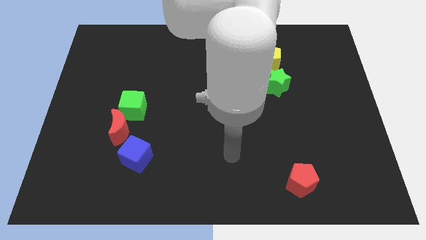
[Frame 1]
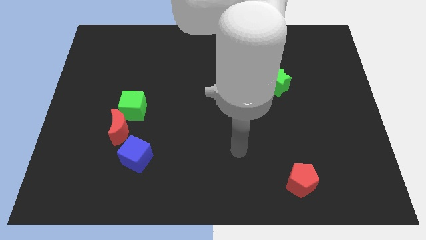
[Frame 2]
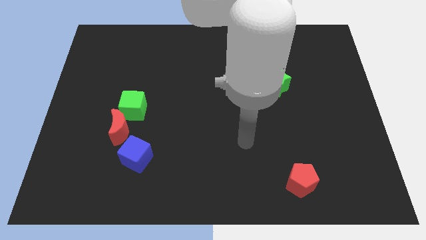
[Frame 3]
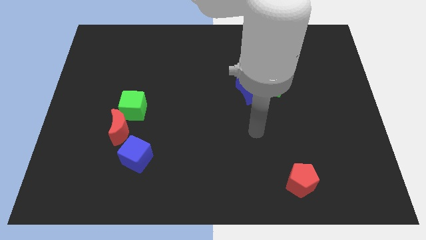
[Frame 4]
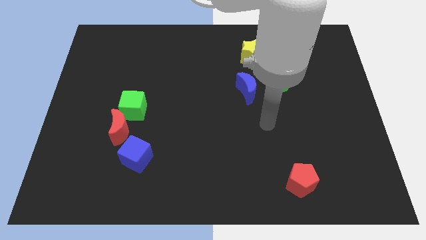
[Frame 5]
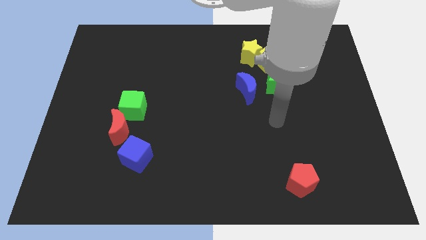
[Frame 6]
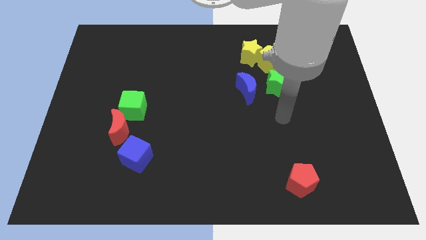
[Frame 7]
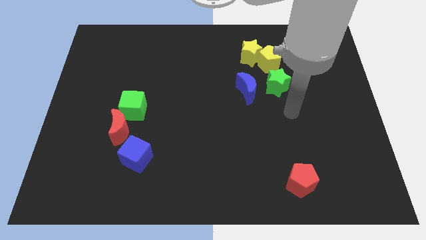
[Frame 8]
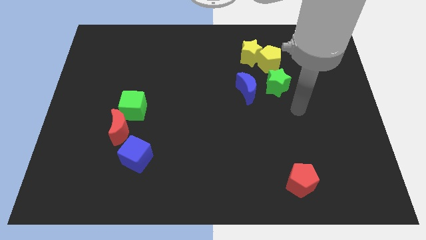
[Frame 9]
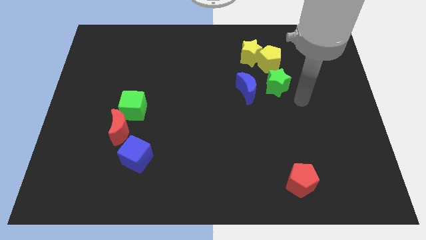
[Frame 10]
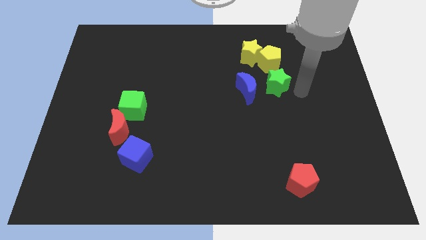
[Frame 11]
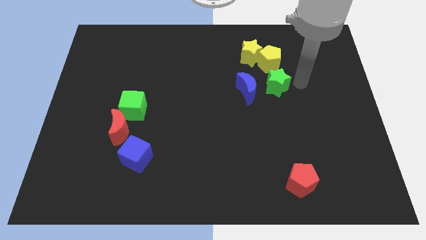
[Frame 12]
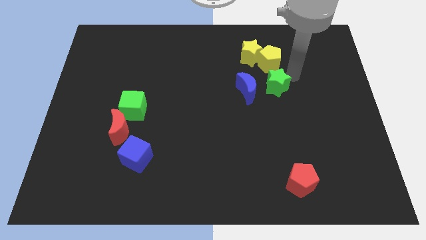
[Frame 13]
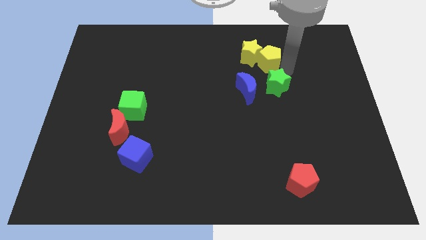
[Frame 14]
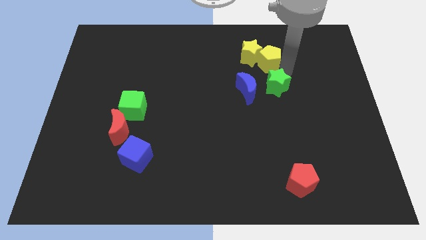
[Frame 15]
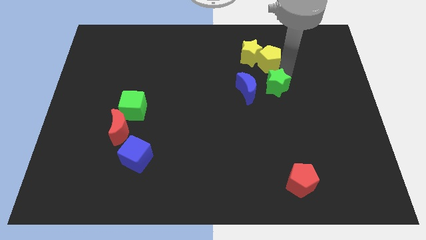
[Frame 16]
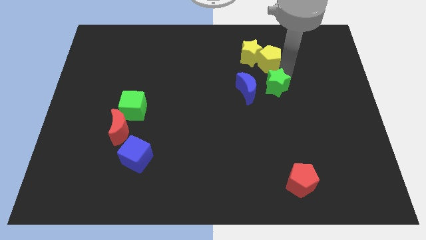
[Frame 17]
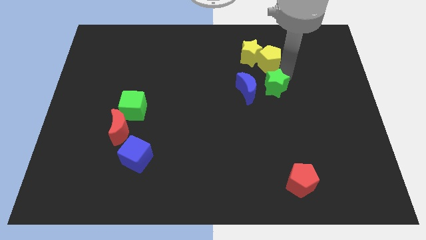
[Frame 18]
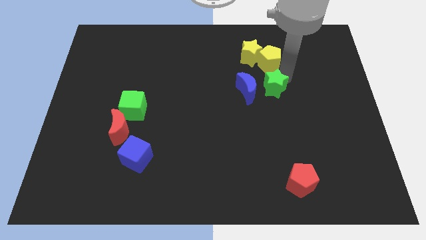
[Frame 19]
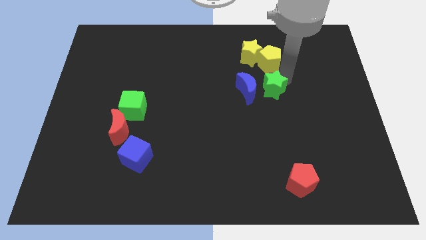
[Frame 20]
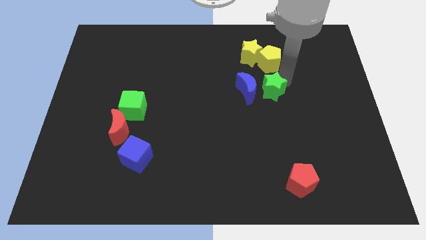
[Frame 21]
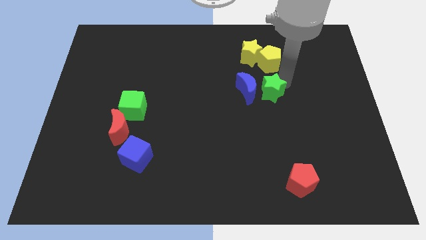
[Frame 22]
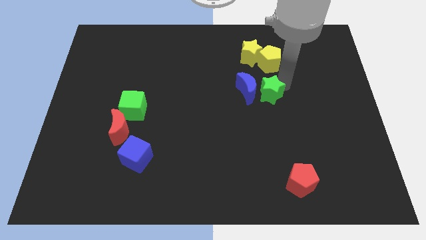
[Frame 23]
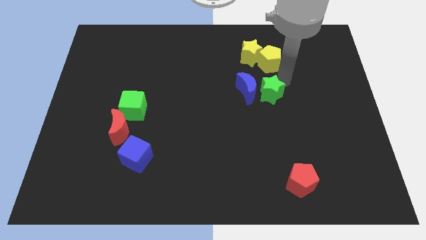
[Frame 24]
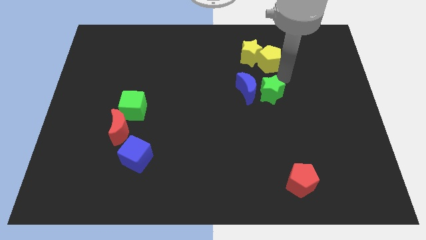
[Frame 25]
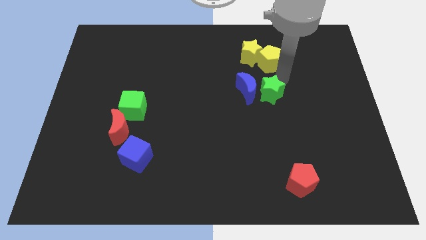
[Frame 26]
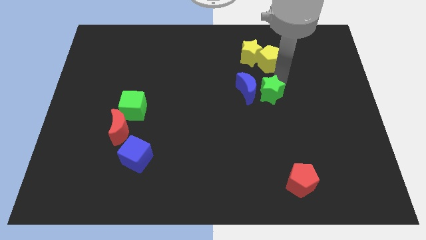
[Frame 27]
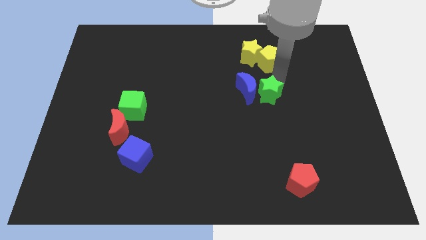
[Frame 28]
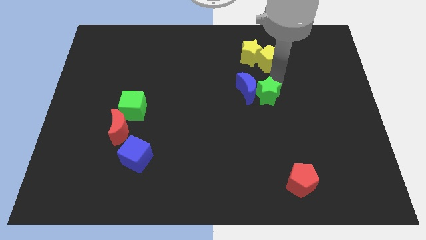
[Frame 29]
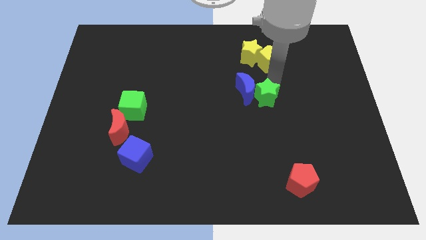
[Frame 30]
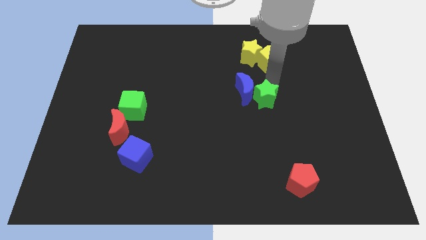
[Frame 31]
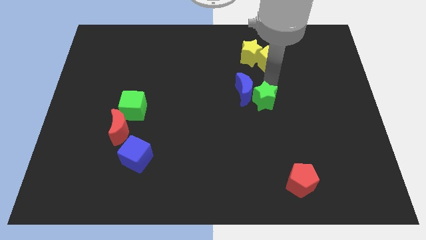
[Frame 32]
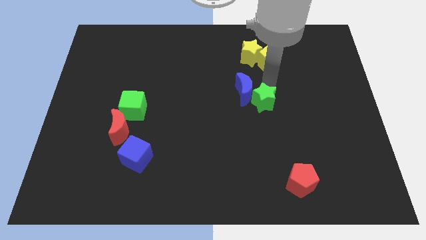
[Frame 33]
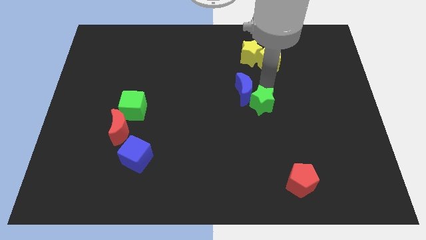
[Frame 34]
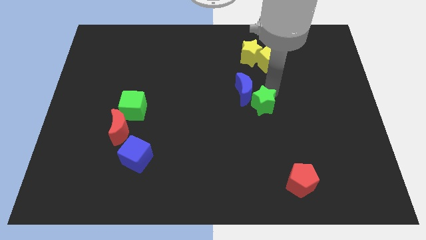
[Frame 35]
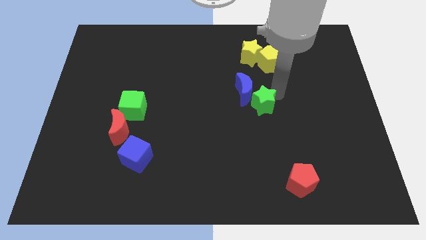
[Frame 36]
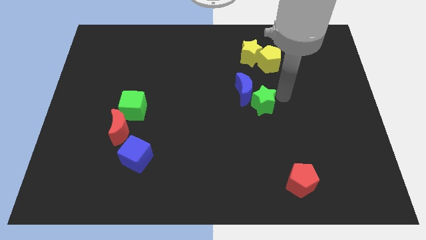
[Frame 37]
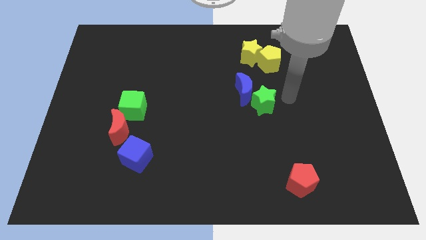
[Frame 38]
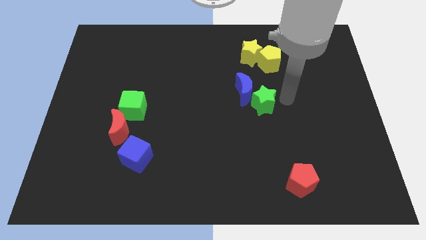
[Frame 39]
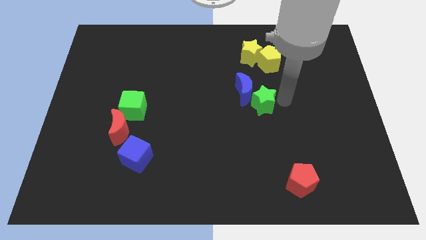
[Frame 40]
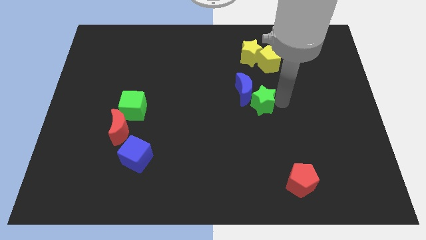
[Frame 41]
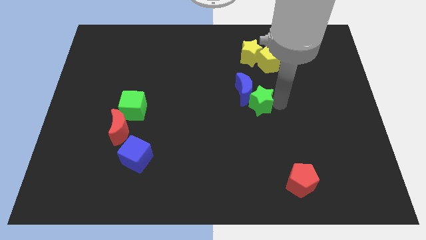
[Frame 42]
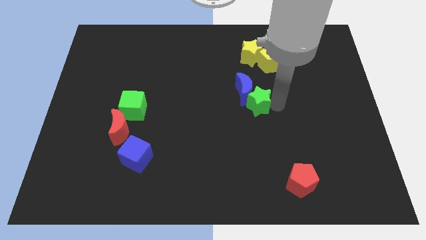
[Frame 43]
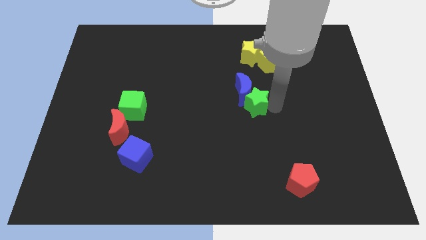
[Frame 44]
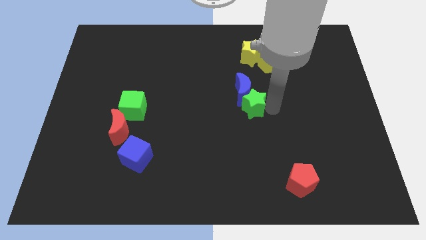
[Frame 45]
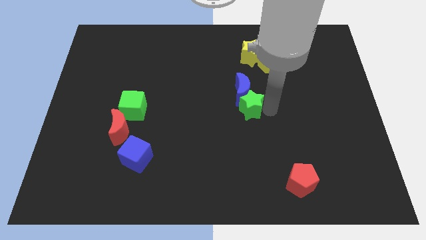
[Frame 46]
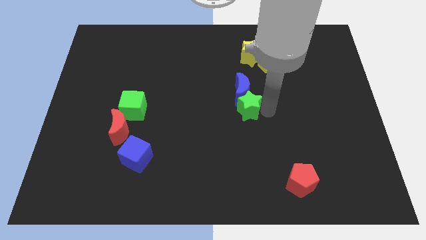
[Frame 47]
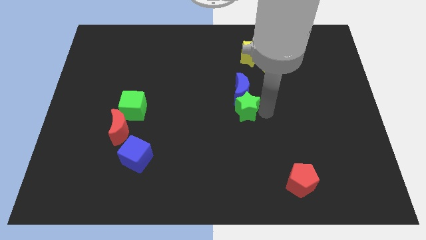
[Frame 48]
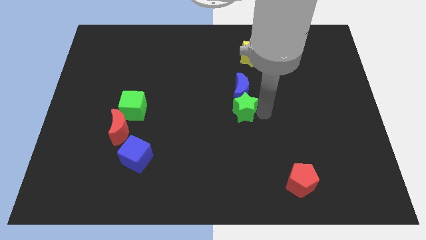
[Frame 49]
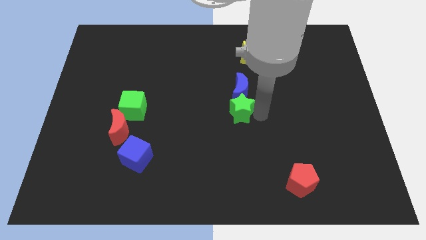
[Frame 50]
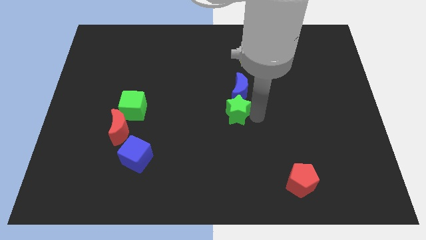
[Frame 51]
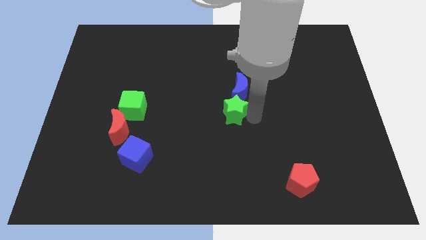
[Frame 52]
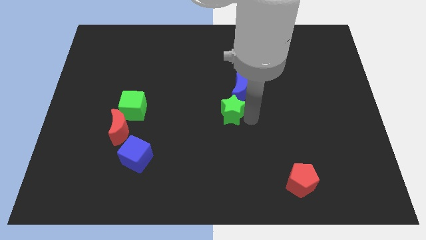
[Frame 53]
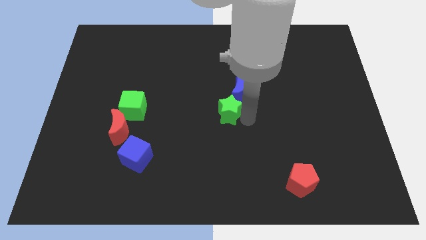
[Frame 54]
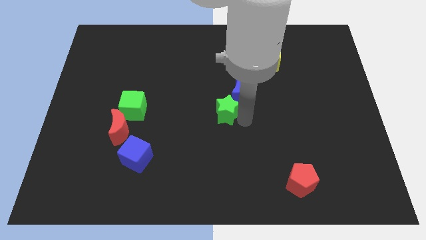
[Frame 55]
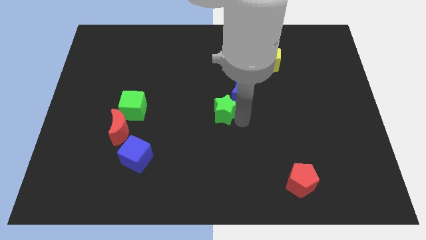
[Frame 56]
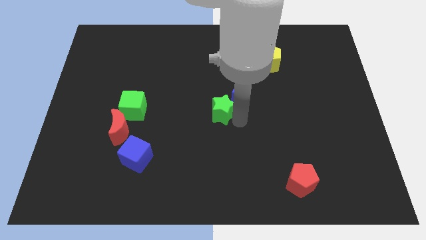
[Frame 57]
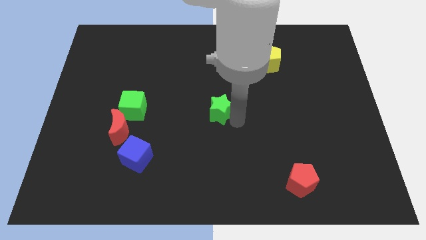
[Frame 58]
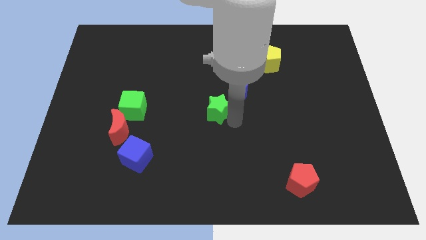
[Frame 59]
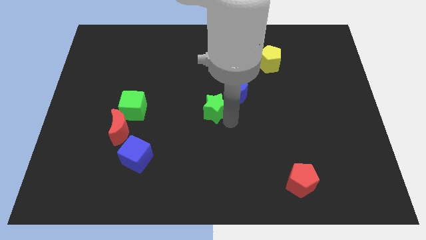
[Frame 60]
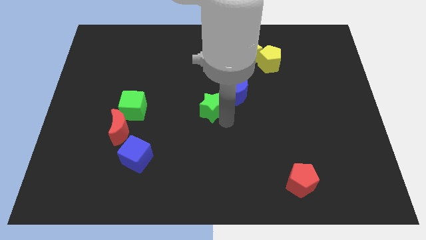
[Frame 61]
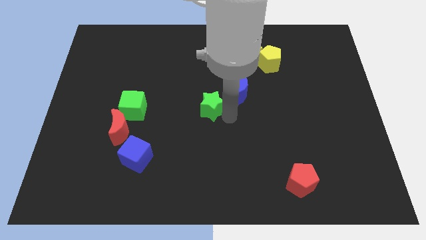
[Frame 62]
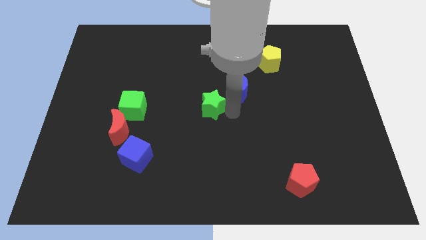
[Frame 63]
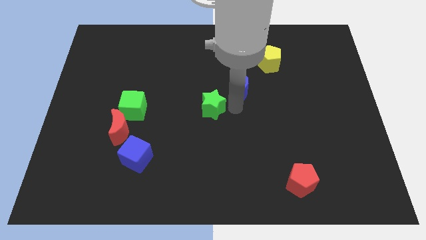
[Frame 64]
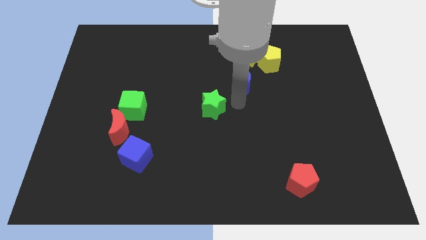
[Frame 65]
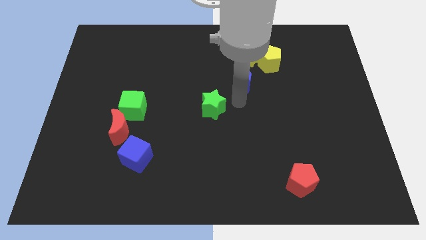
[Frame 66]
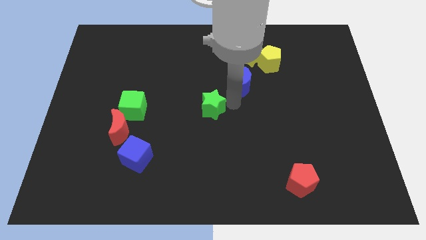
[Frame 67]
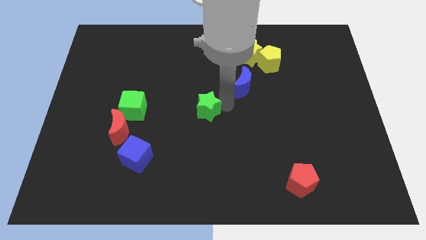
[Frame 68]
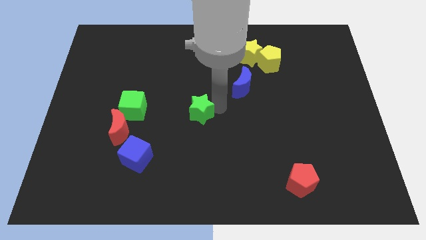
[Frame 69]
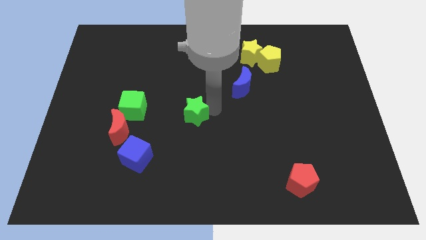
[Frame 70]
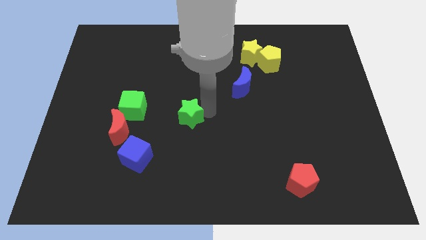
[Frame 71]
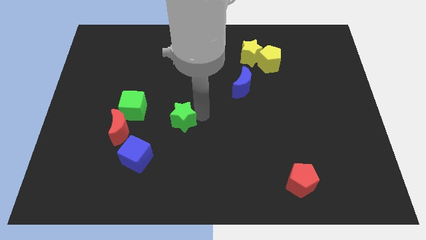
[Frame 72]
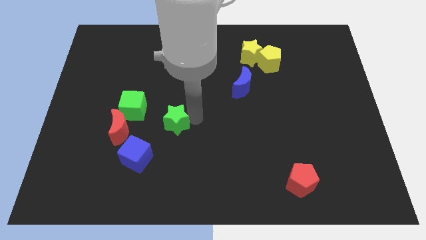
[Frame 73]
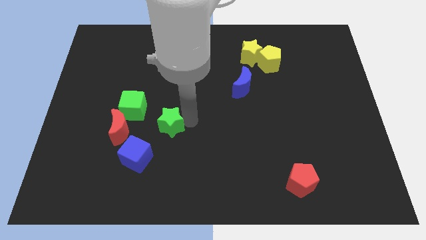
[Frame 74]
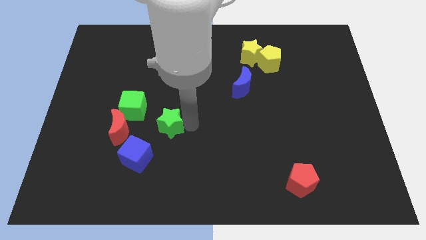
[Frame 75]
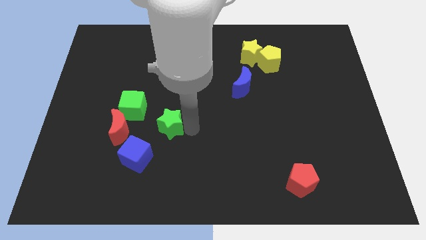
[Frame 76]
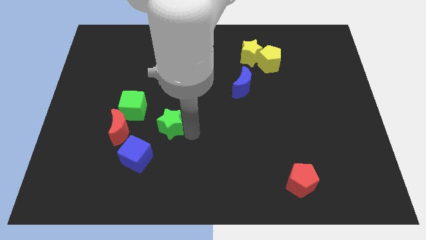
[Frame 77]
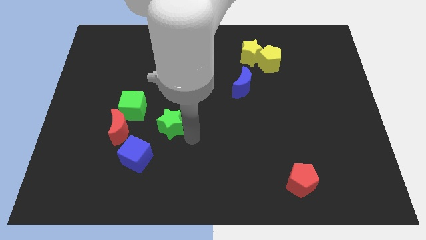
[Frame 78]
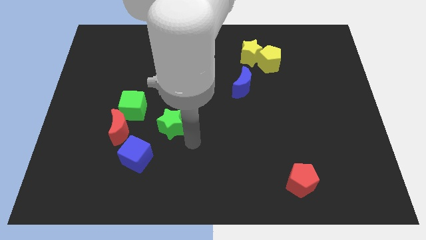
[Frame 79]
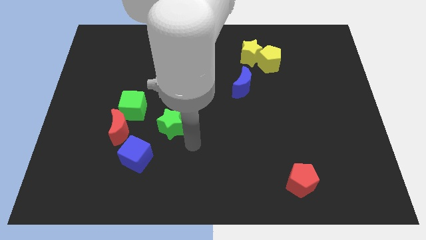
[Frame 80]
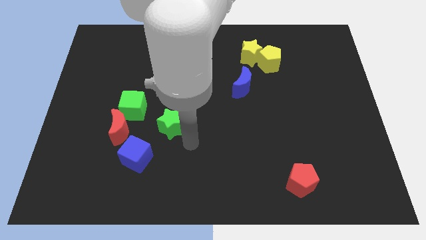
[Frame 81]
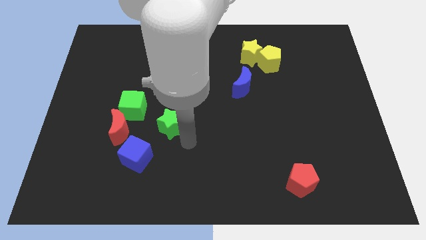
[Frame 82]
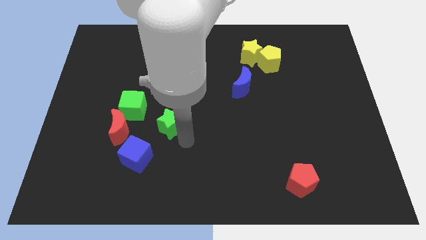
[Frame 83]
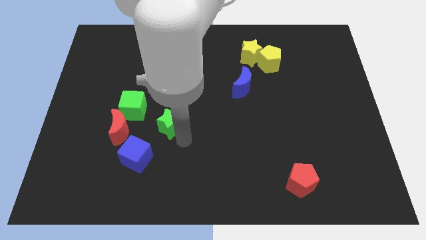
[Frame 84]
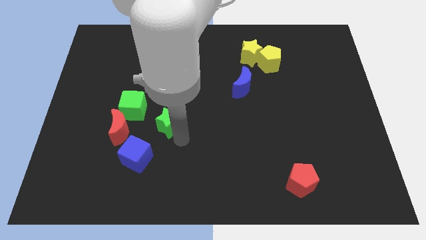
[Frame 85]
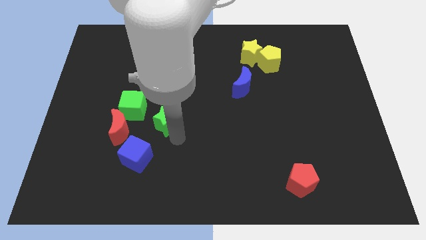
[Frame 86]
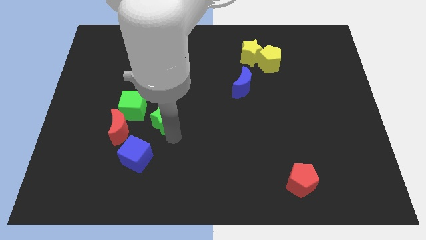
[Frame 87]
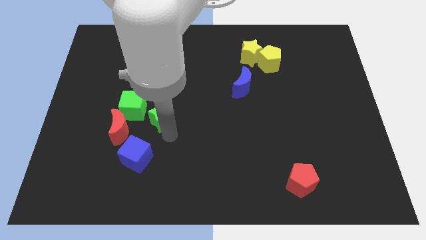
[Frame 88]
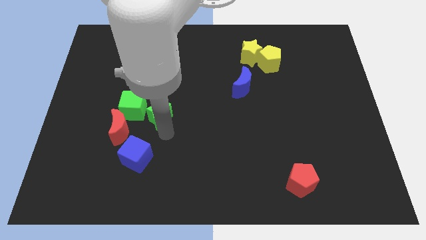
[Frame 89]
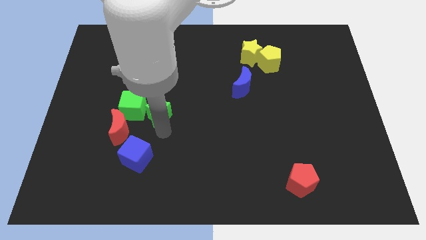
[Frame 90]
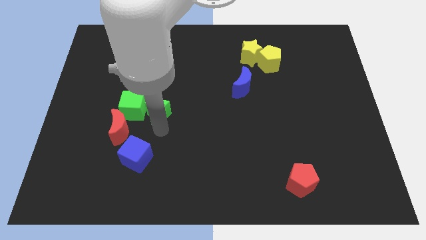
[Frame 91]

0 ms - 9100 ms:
push the green star to the green cube
